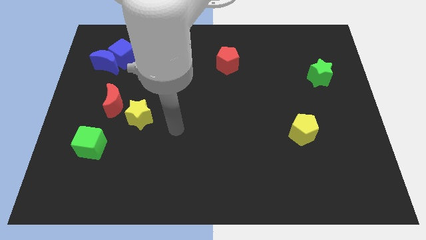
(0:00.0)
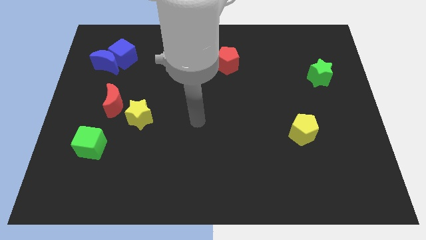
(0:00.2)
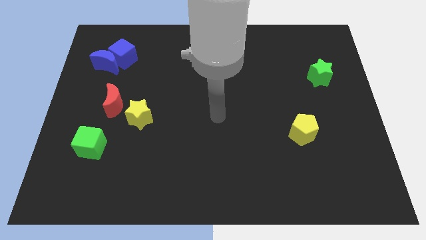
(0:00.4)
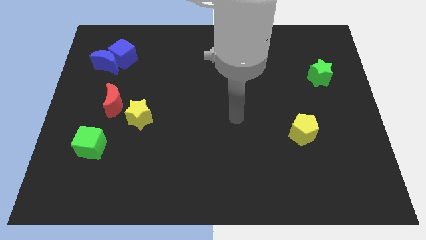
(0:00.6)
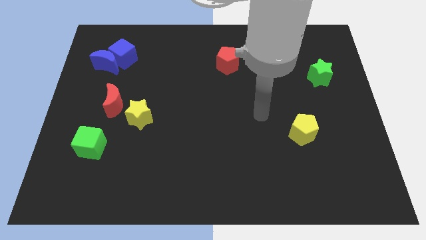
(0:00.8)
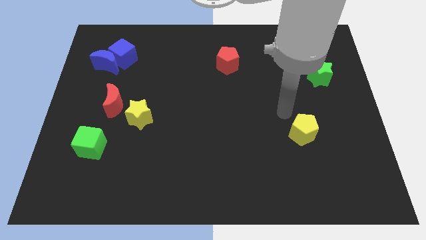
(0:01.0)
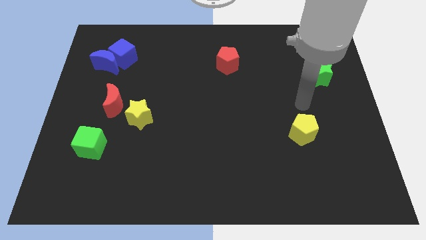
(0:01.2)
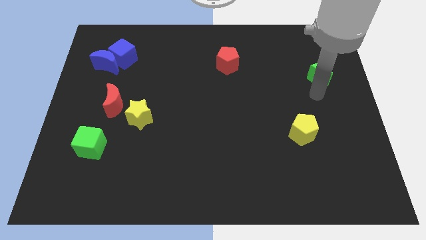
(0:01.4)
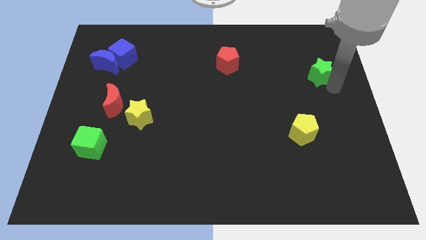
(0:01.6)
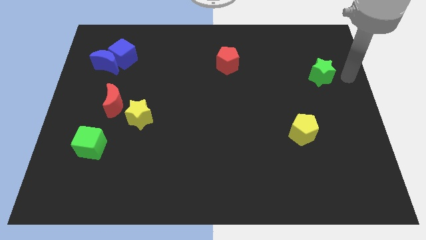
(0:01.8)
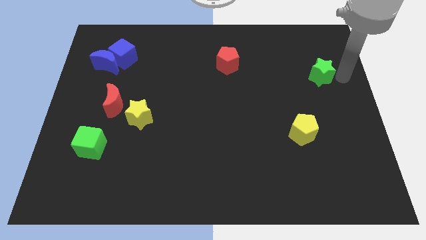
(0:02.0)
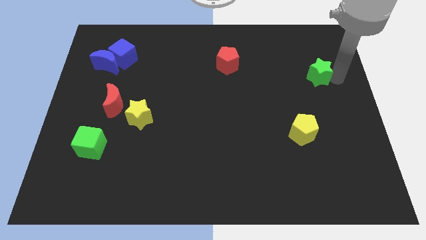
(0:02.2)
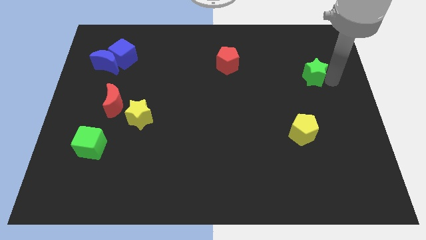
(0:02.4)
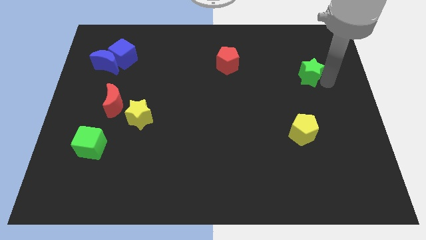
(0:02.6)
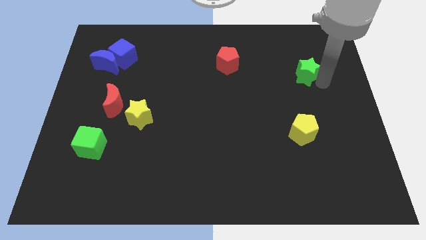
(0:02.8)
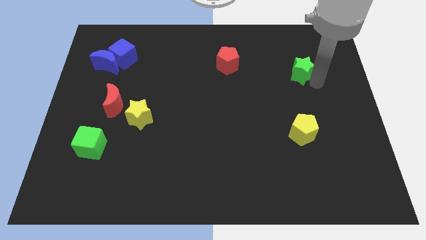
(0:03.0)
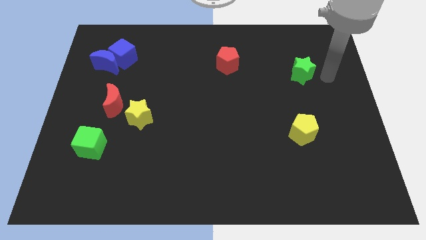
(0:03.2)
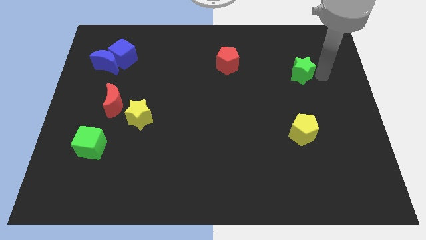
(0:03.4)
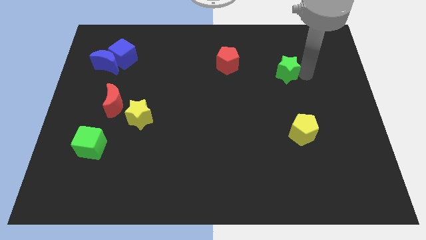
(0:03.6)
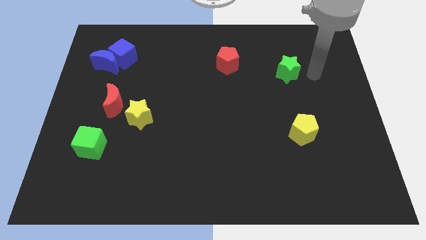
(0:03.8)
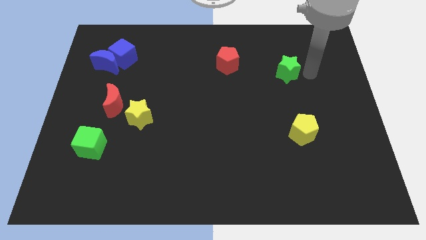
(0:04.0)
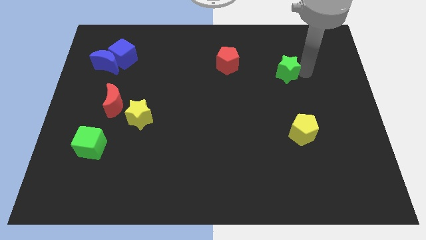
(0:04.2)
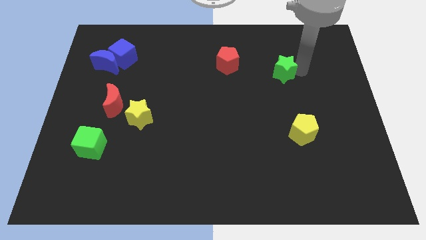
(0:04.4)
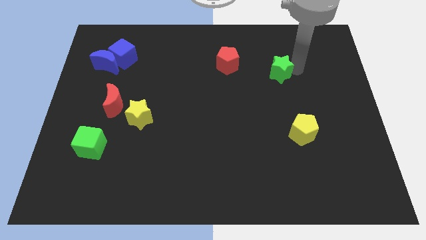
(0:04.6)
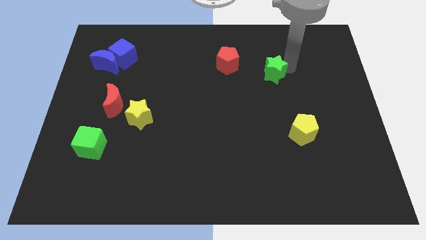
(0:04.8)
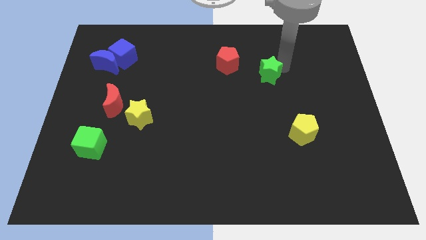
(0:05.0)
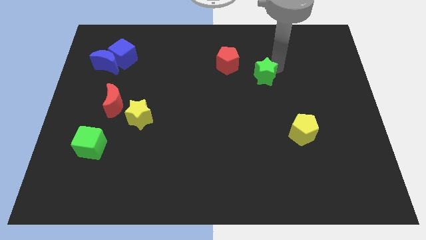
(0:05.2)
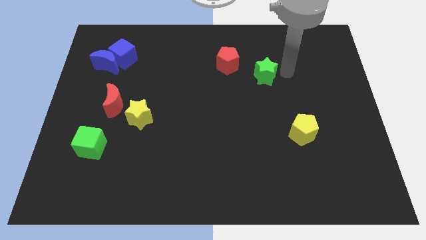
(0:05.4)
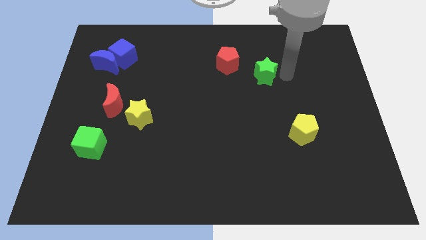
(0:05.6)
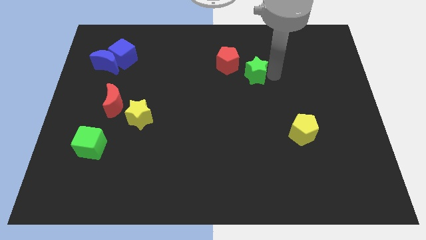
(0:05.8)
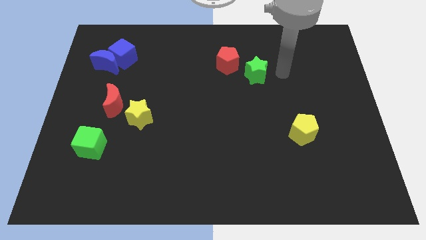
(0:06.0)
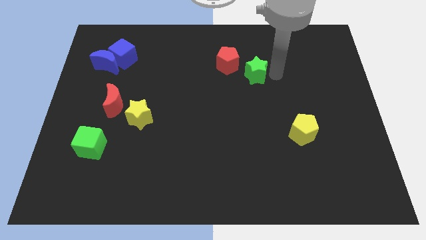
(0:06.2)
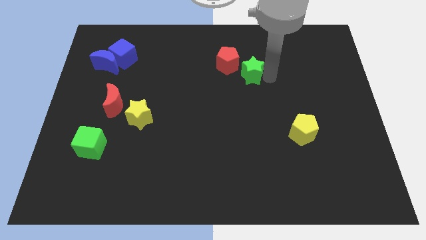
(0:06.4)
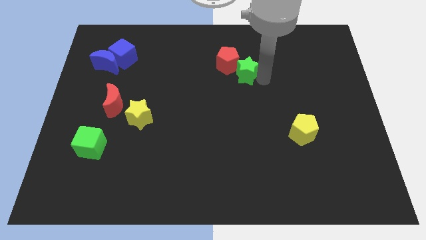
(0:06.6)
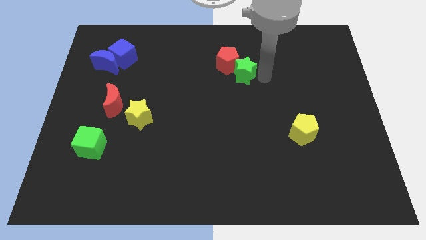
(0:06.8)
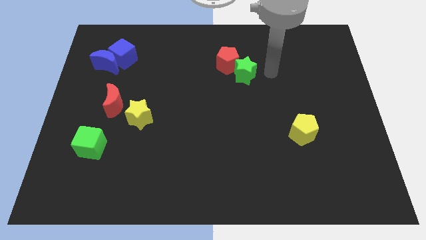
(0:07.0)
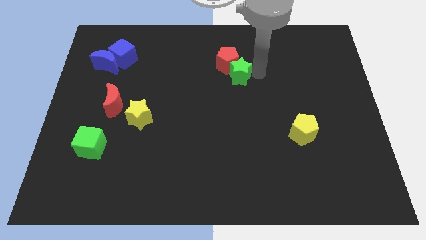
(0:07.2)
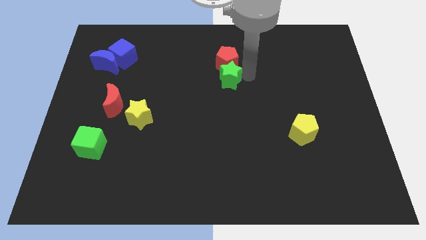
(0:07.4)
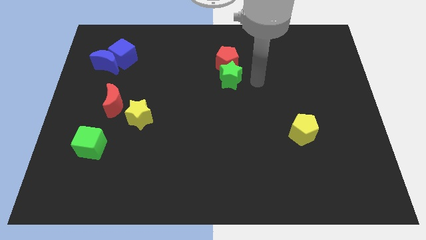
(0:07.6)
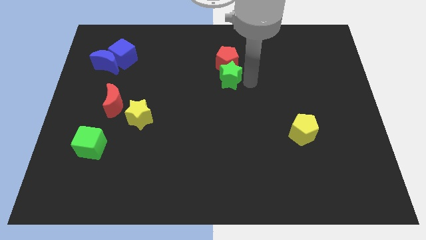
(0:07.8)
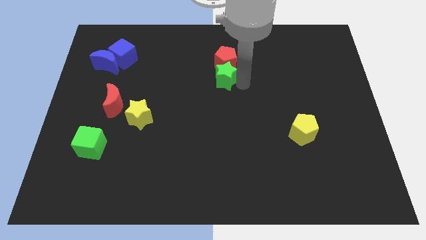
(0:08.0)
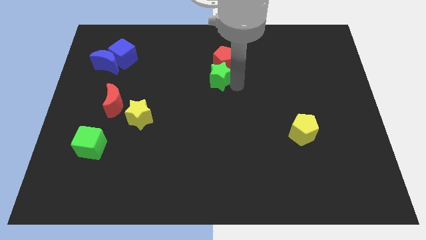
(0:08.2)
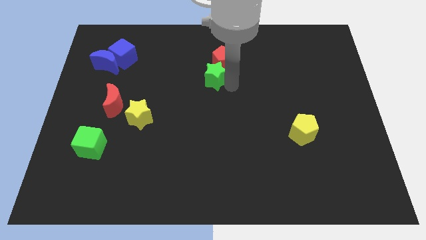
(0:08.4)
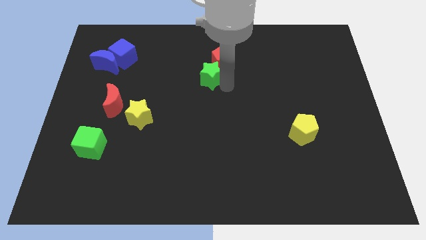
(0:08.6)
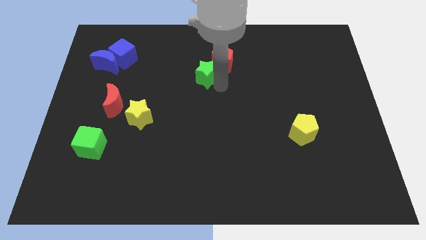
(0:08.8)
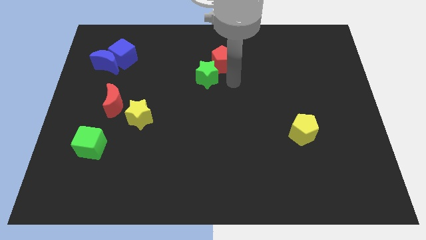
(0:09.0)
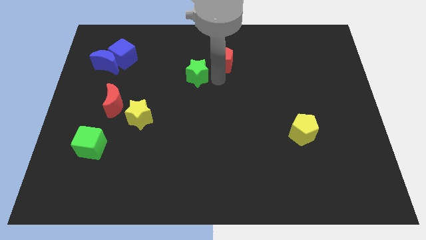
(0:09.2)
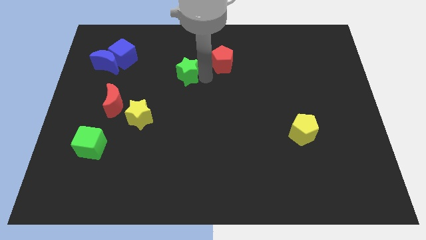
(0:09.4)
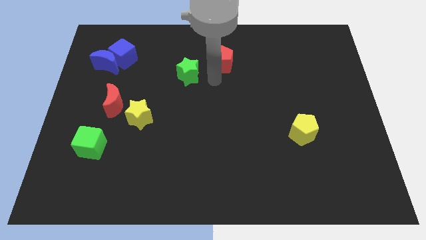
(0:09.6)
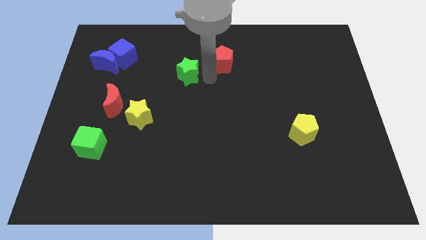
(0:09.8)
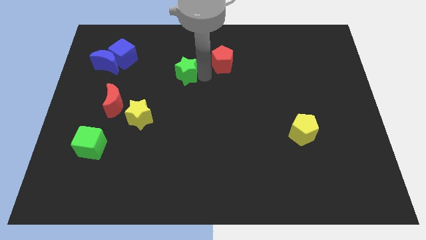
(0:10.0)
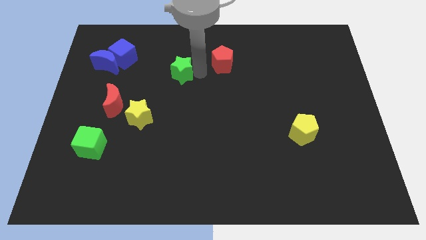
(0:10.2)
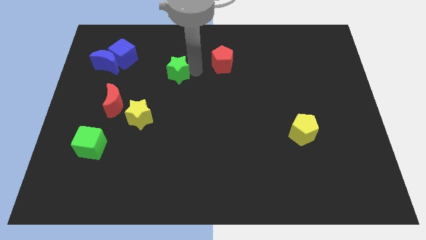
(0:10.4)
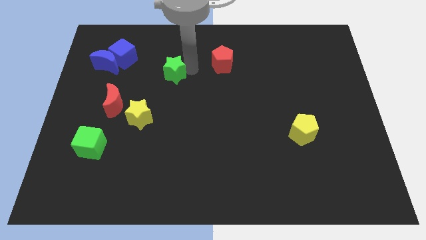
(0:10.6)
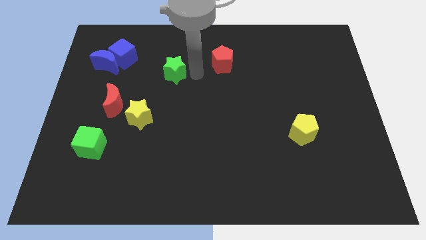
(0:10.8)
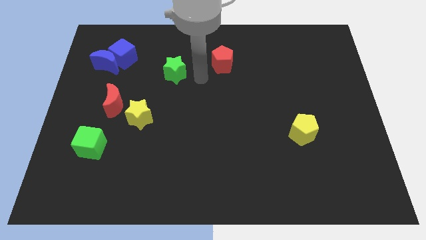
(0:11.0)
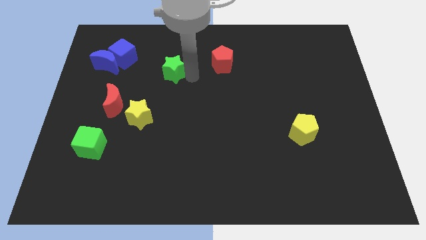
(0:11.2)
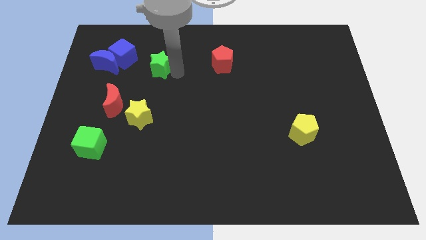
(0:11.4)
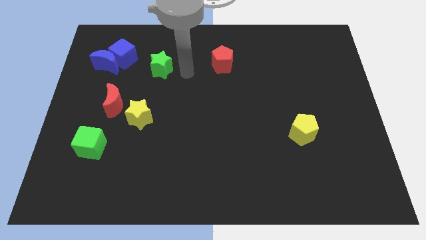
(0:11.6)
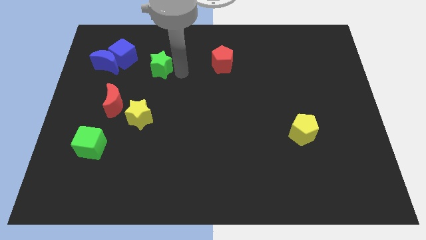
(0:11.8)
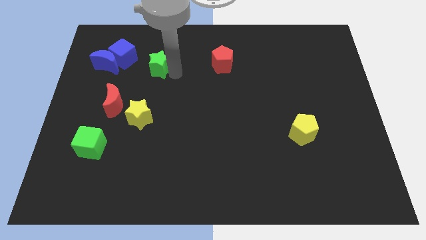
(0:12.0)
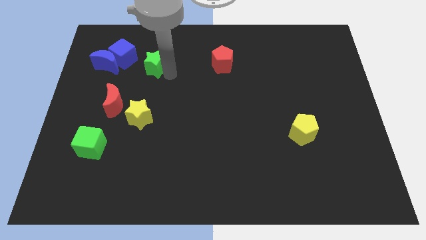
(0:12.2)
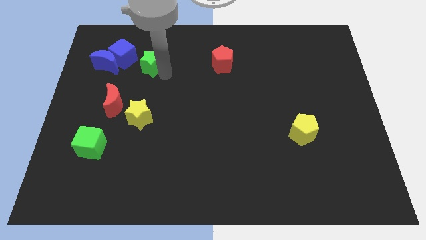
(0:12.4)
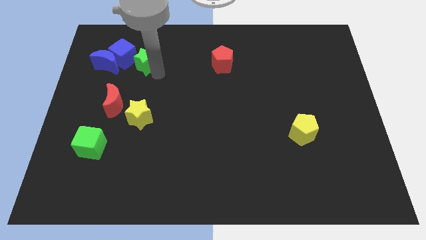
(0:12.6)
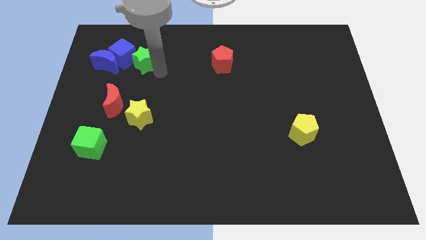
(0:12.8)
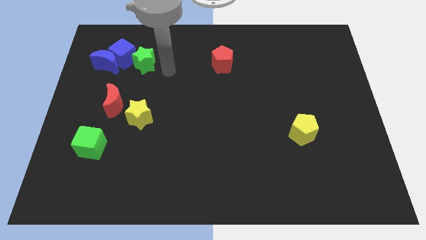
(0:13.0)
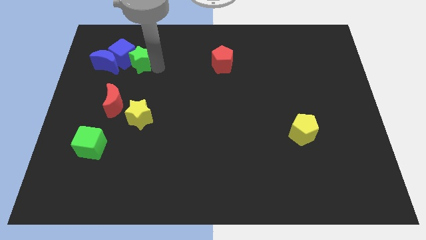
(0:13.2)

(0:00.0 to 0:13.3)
slide the green star towards the blue cube

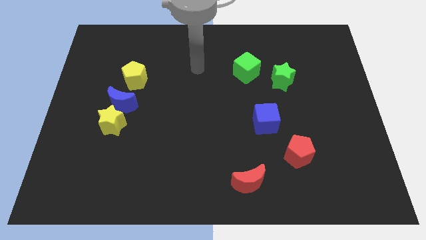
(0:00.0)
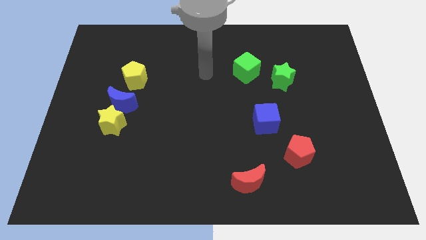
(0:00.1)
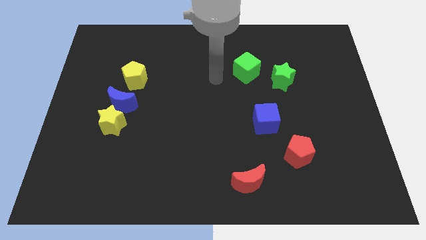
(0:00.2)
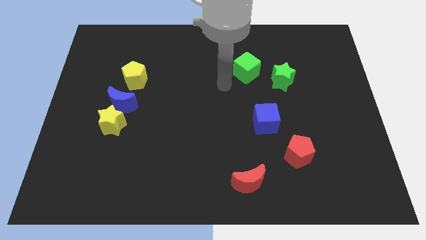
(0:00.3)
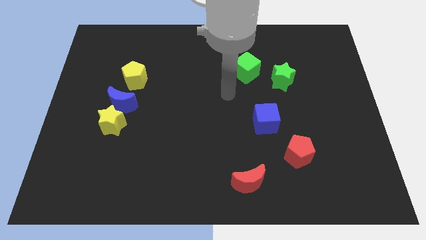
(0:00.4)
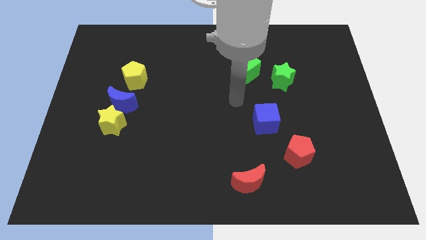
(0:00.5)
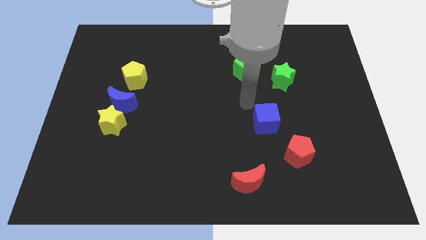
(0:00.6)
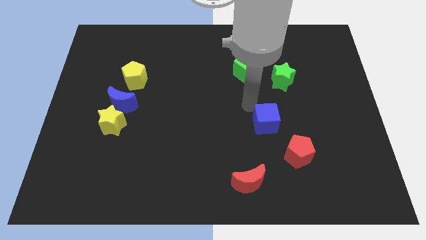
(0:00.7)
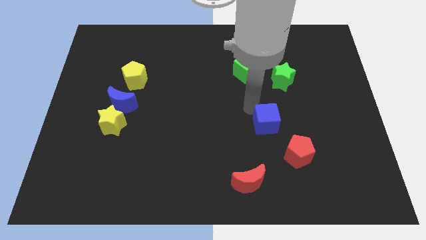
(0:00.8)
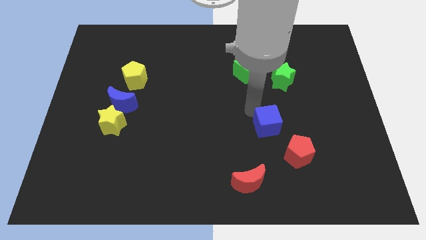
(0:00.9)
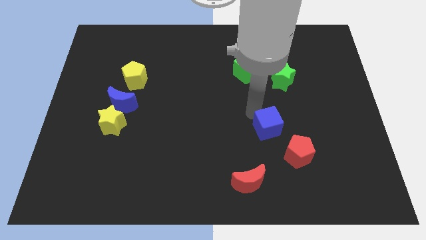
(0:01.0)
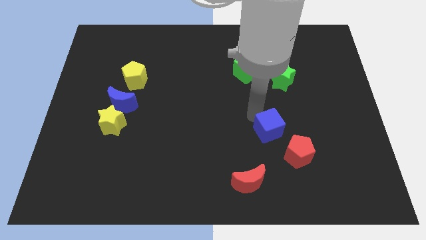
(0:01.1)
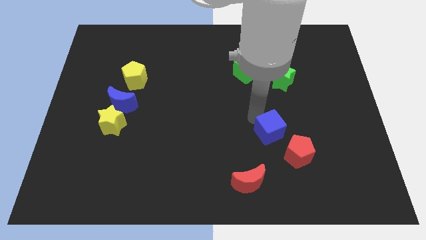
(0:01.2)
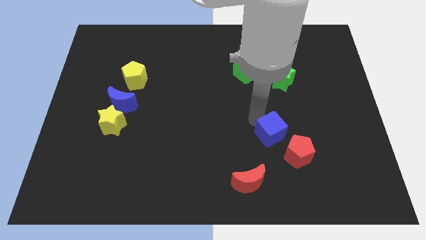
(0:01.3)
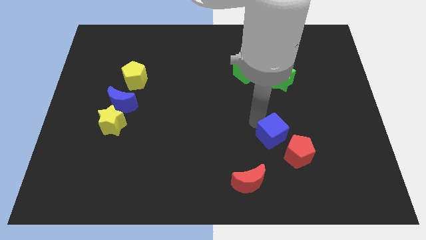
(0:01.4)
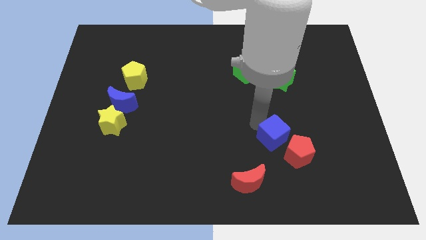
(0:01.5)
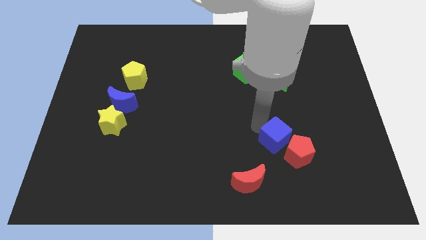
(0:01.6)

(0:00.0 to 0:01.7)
push the blue cube close to the red pentagon
